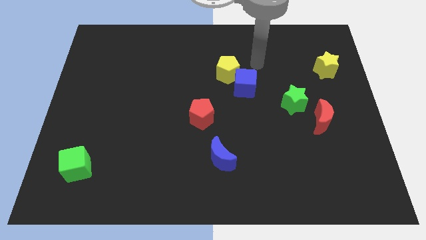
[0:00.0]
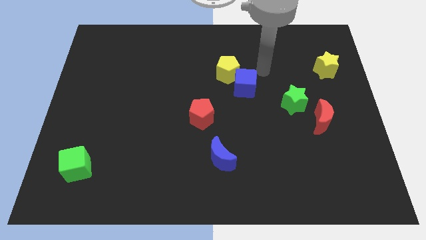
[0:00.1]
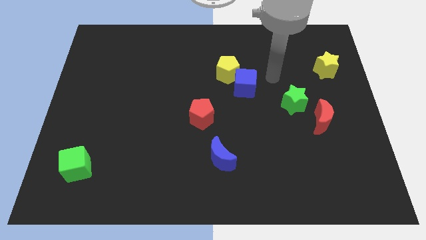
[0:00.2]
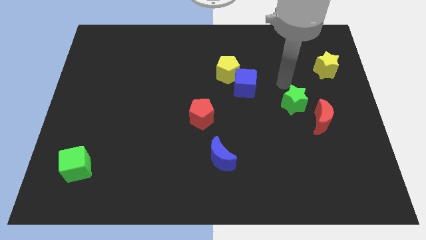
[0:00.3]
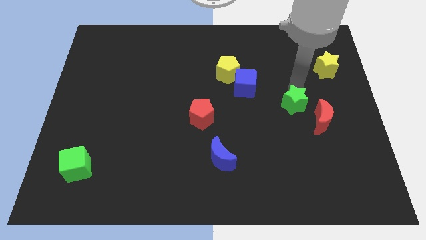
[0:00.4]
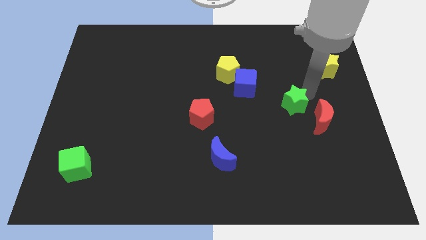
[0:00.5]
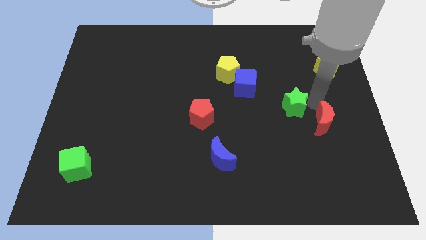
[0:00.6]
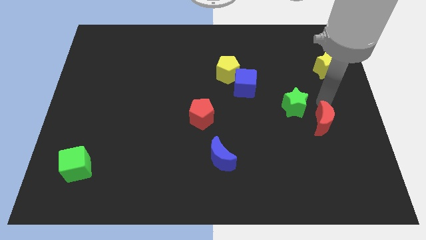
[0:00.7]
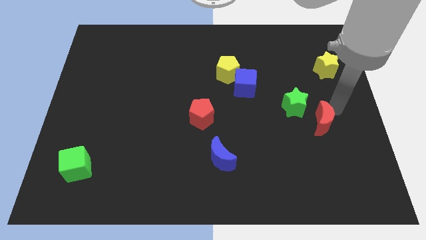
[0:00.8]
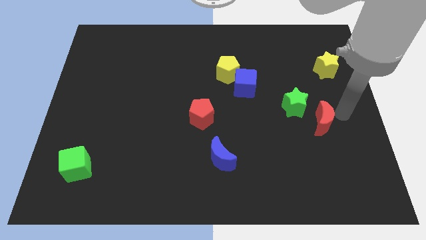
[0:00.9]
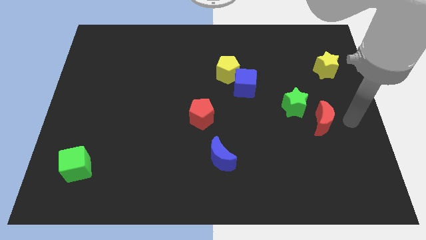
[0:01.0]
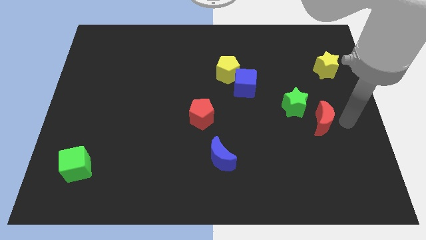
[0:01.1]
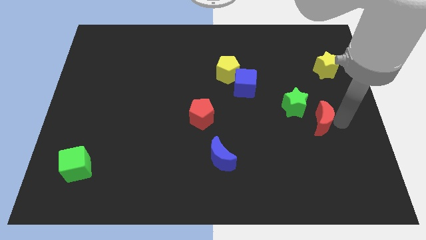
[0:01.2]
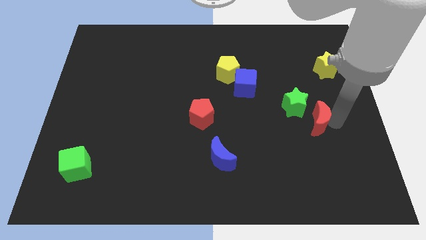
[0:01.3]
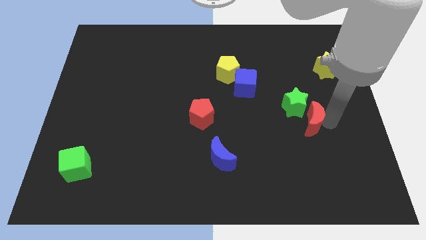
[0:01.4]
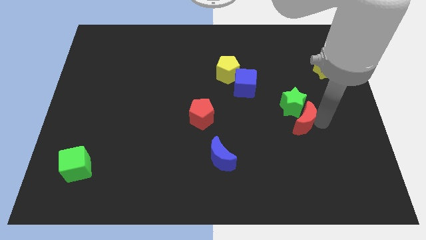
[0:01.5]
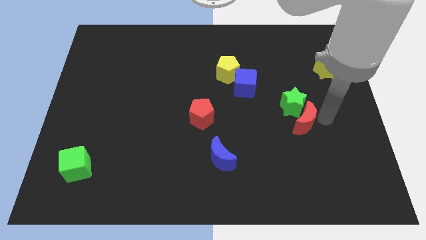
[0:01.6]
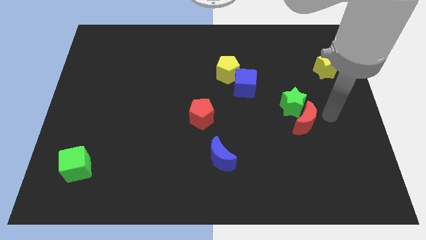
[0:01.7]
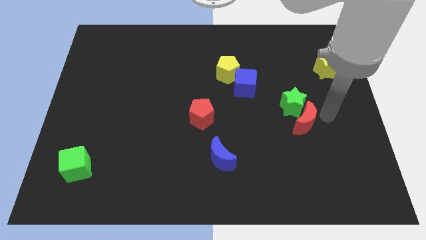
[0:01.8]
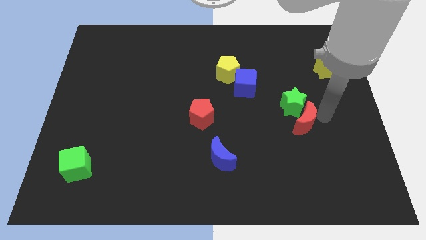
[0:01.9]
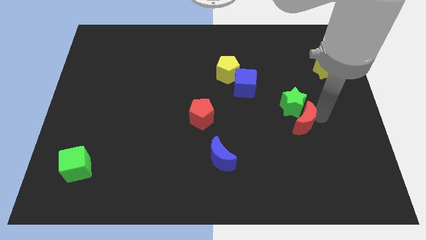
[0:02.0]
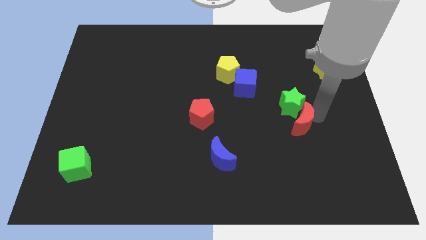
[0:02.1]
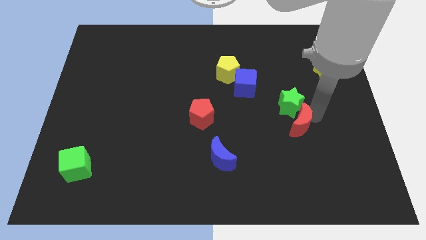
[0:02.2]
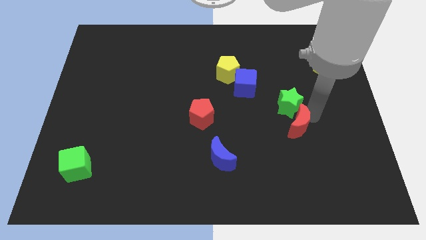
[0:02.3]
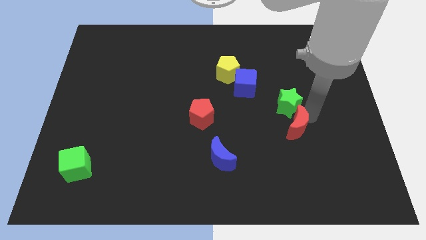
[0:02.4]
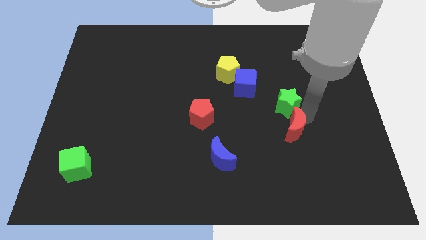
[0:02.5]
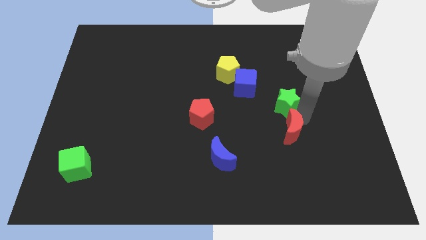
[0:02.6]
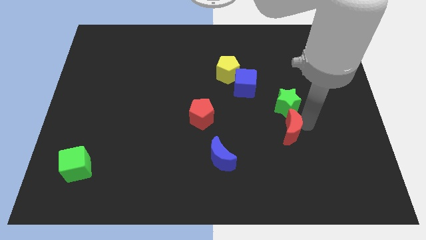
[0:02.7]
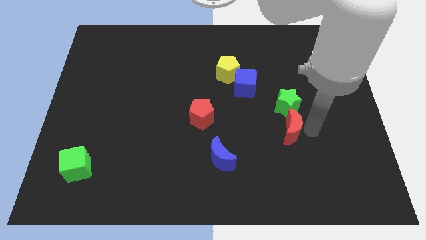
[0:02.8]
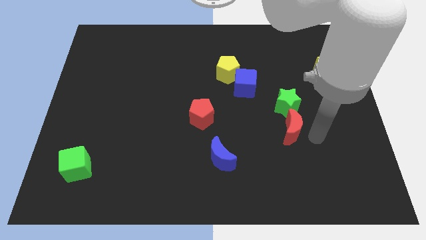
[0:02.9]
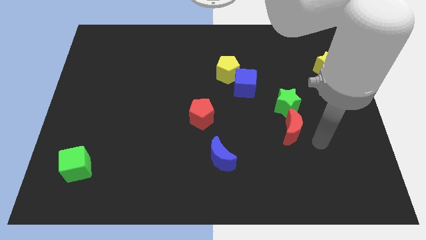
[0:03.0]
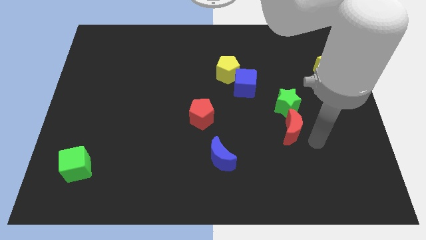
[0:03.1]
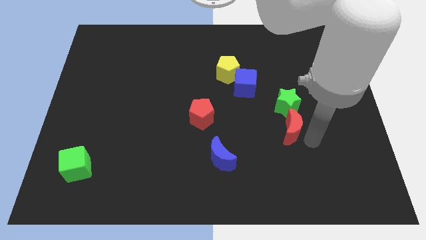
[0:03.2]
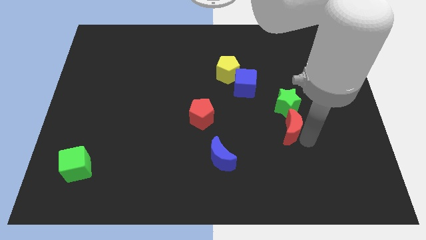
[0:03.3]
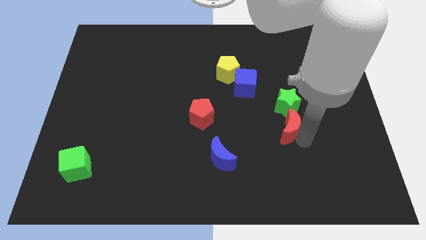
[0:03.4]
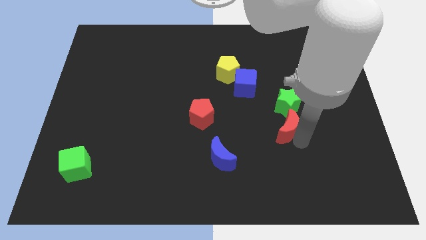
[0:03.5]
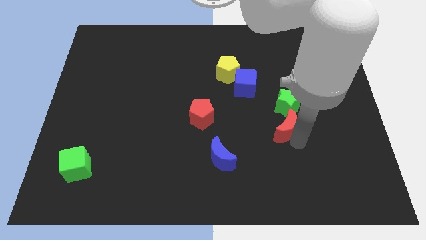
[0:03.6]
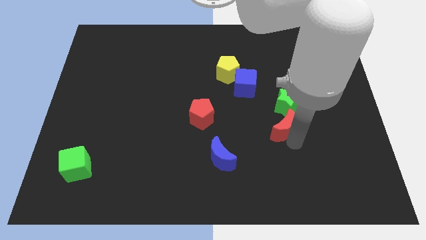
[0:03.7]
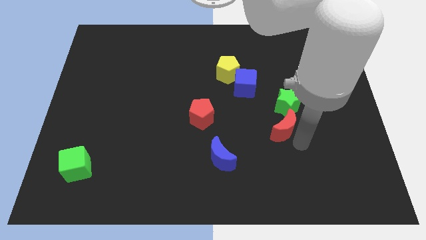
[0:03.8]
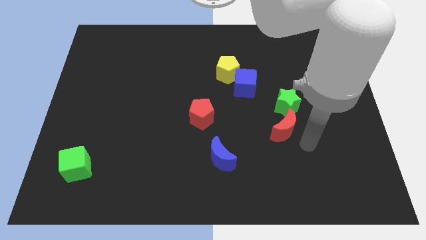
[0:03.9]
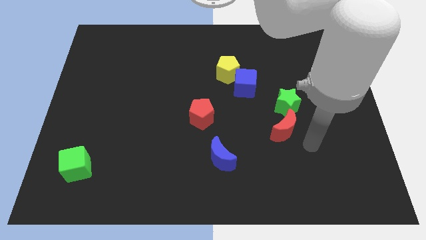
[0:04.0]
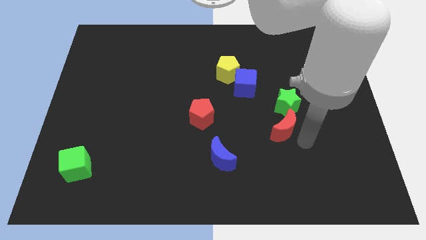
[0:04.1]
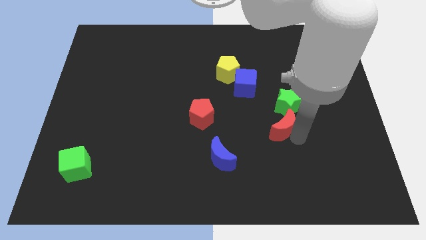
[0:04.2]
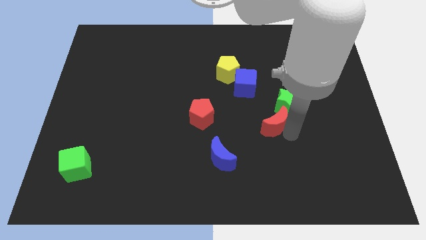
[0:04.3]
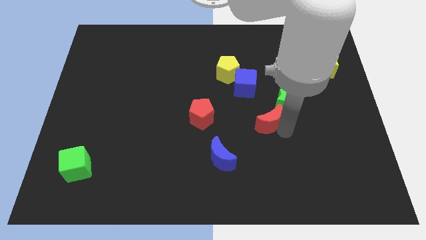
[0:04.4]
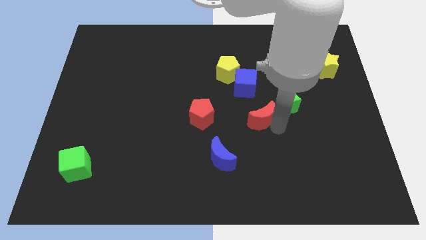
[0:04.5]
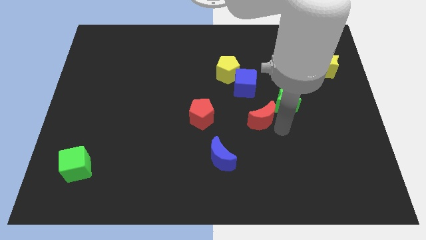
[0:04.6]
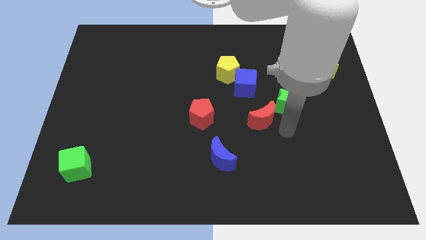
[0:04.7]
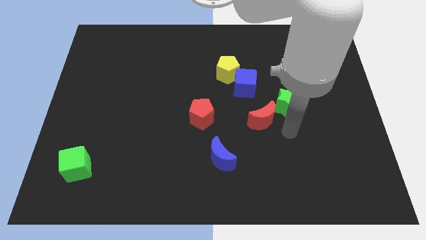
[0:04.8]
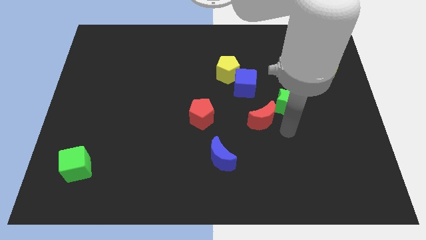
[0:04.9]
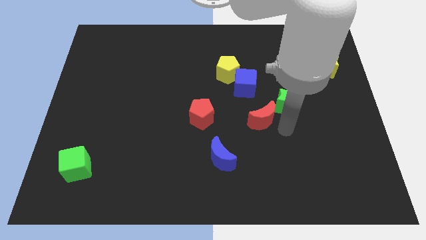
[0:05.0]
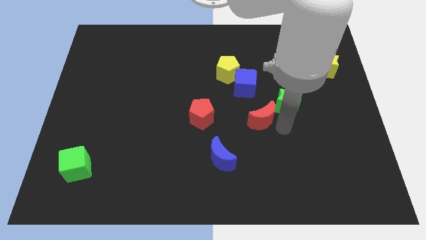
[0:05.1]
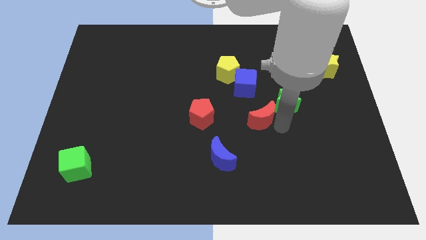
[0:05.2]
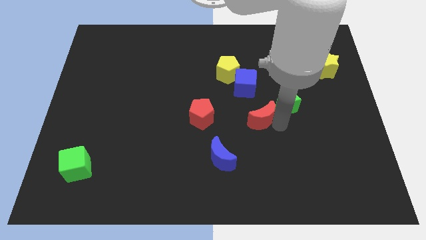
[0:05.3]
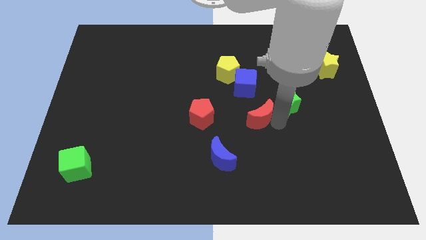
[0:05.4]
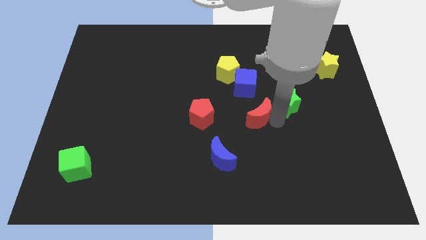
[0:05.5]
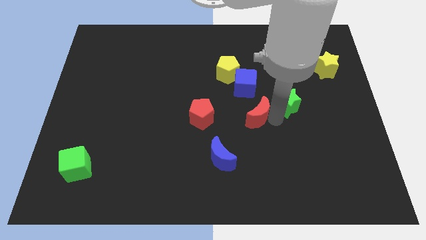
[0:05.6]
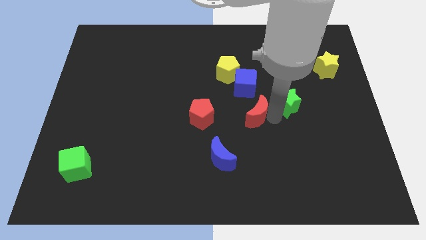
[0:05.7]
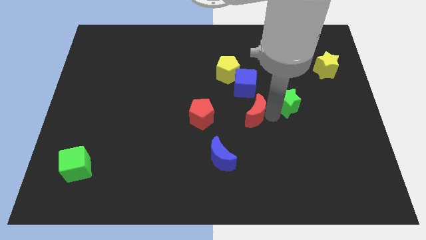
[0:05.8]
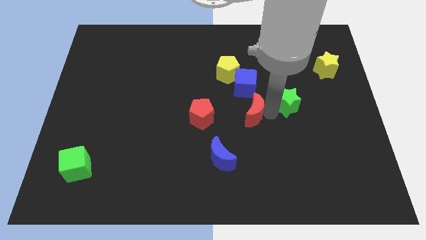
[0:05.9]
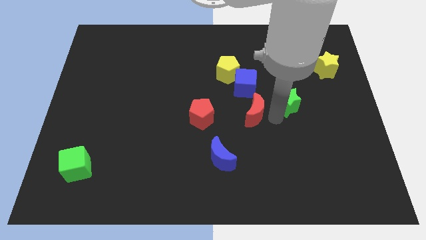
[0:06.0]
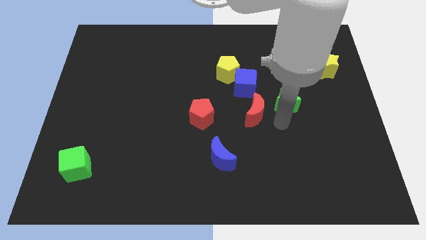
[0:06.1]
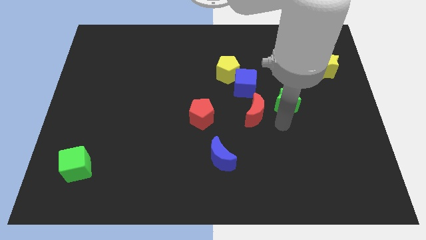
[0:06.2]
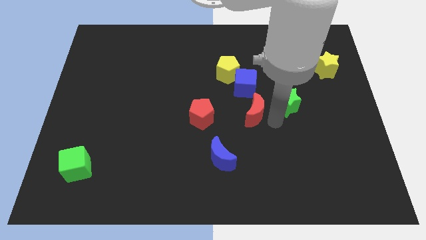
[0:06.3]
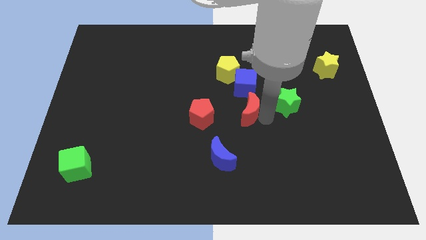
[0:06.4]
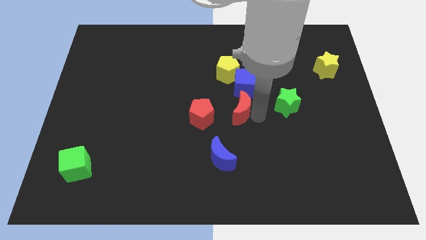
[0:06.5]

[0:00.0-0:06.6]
move the red moon to the bottom left side of the blue cube
